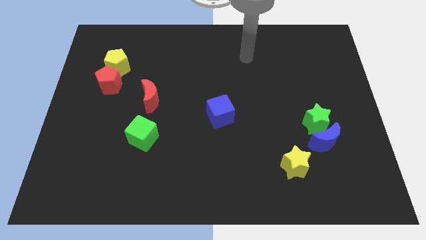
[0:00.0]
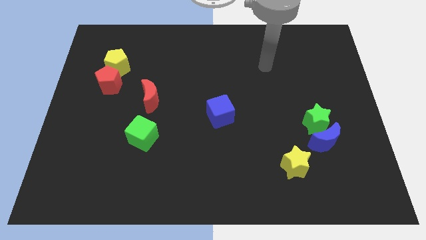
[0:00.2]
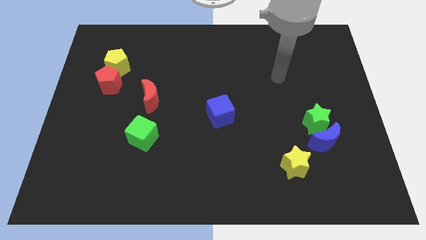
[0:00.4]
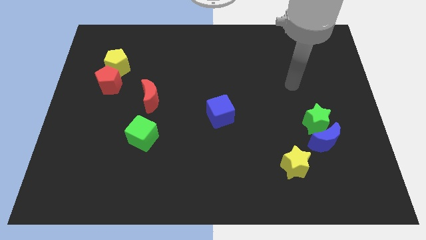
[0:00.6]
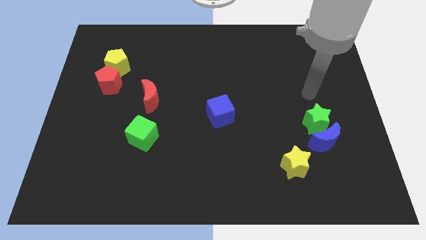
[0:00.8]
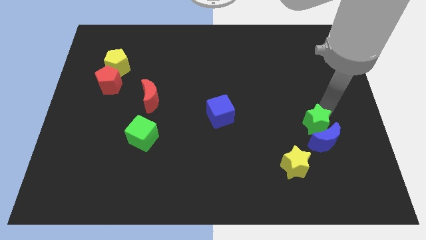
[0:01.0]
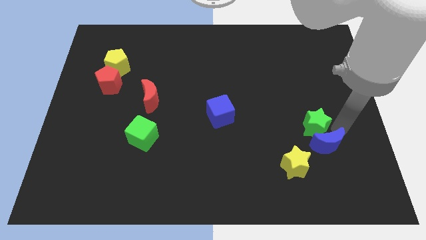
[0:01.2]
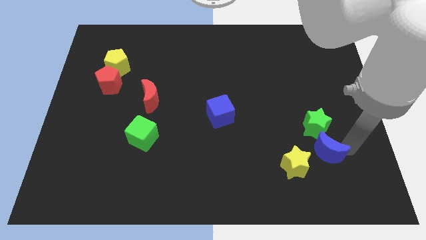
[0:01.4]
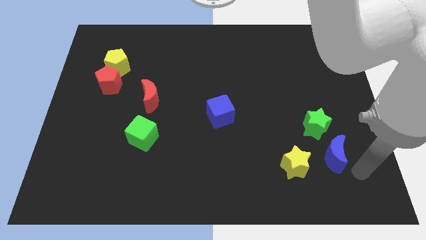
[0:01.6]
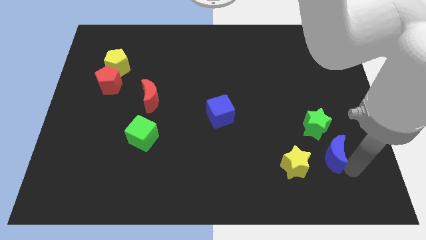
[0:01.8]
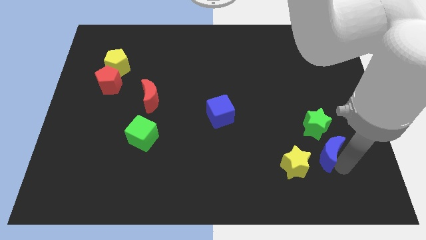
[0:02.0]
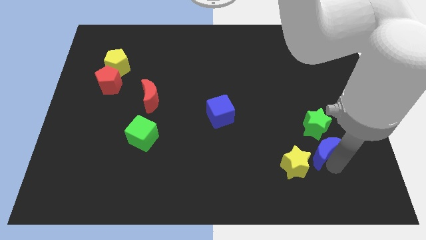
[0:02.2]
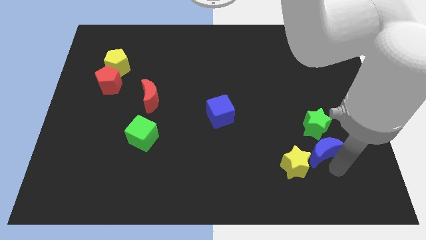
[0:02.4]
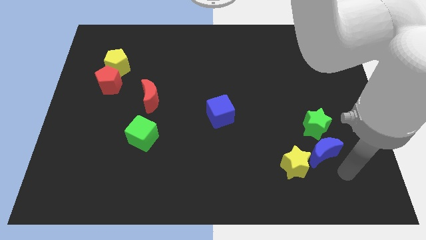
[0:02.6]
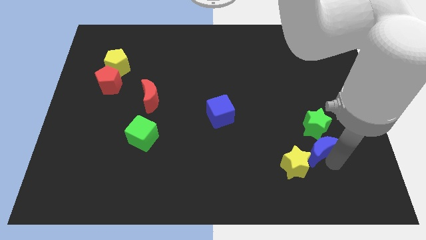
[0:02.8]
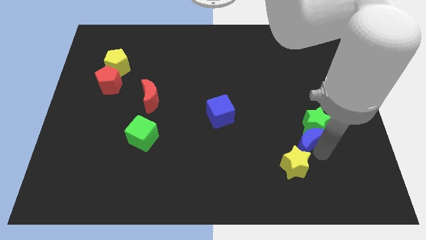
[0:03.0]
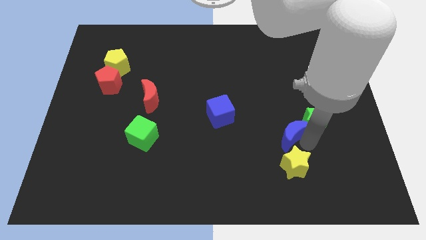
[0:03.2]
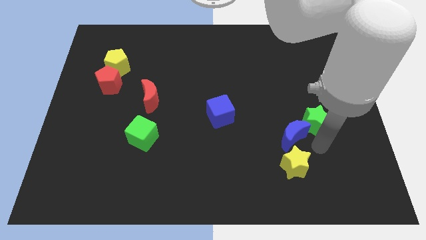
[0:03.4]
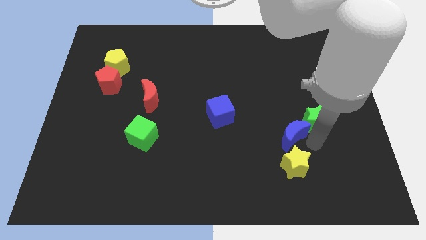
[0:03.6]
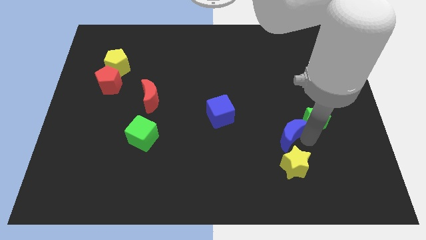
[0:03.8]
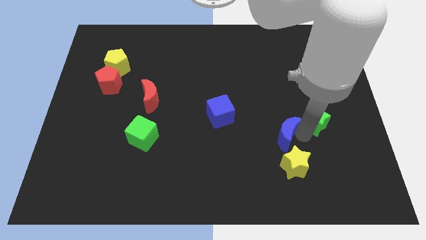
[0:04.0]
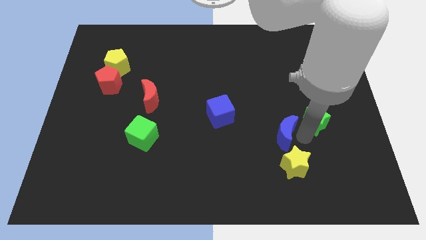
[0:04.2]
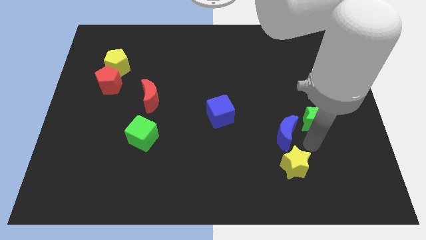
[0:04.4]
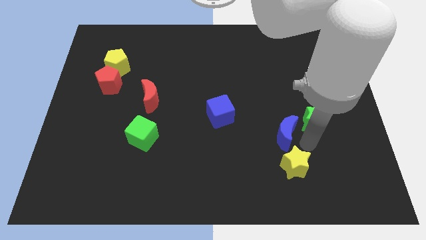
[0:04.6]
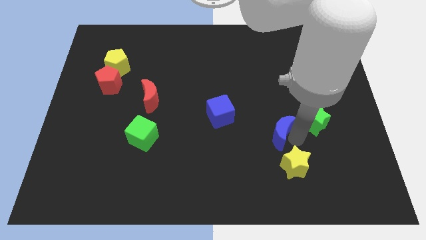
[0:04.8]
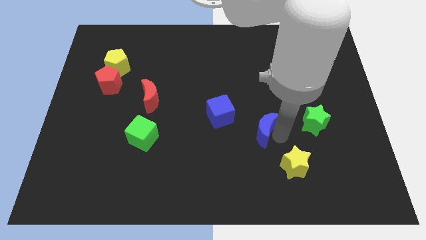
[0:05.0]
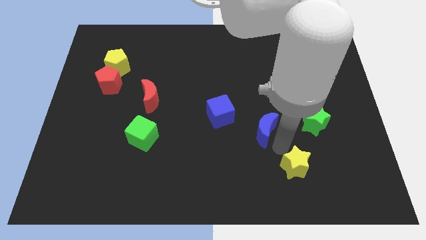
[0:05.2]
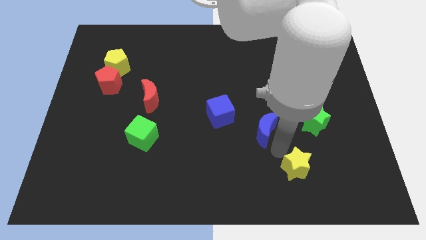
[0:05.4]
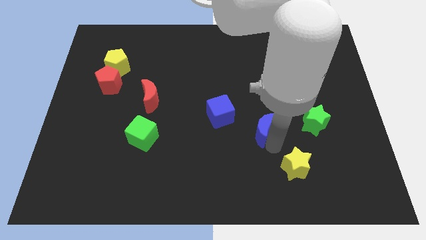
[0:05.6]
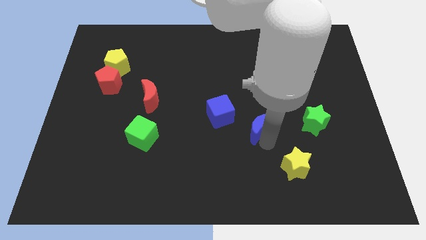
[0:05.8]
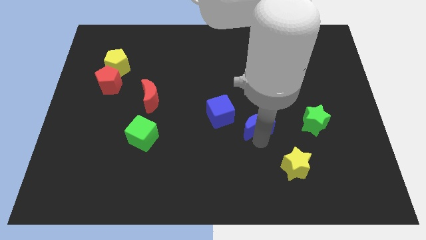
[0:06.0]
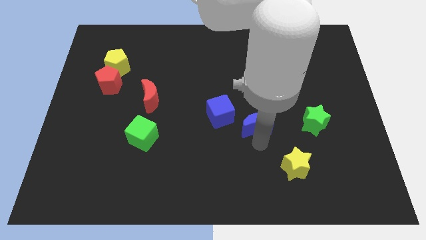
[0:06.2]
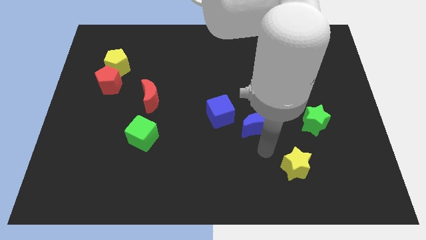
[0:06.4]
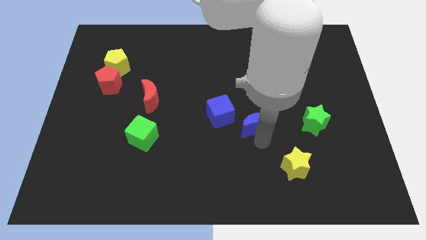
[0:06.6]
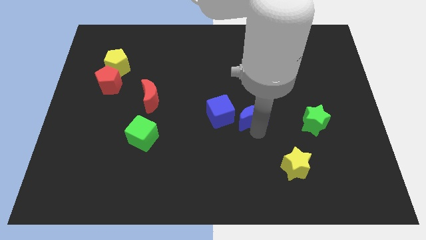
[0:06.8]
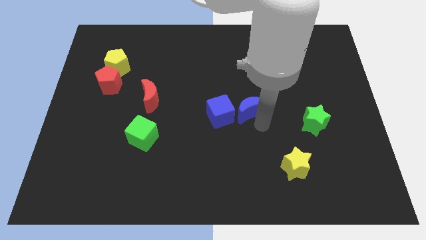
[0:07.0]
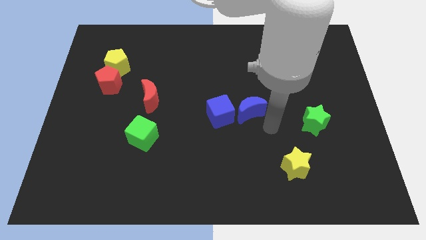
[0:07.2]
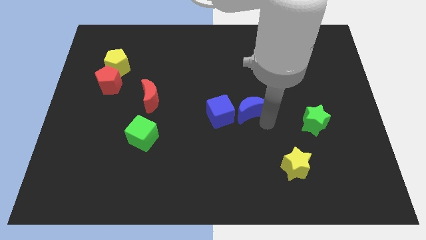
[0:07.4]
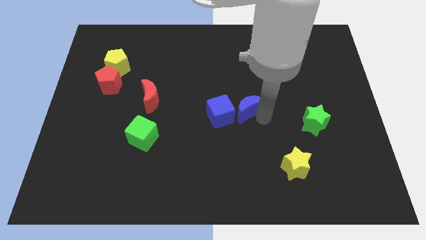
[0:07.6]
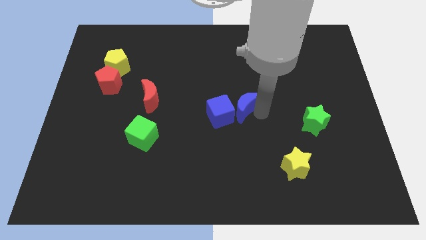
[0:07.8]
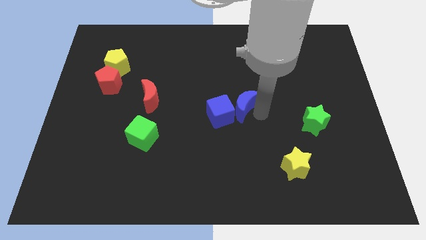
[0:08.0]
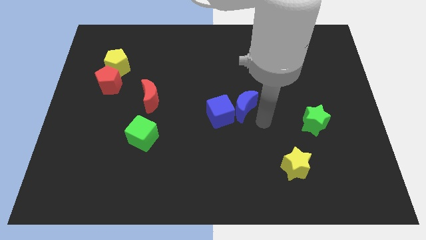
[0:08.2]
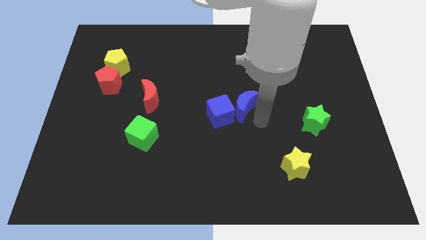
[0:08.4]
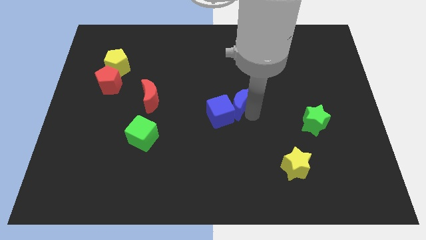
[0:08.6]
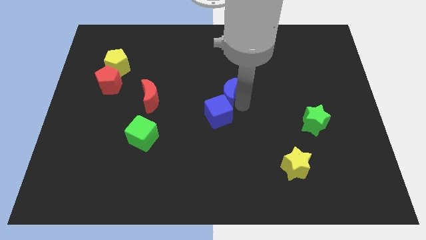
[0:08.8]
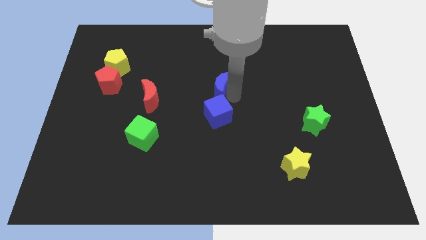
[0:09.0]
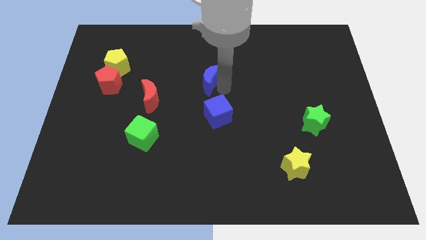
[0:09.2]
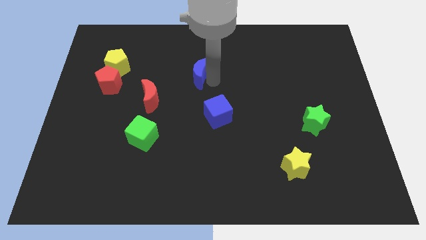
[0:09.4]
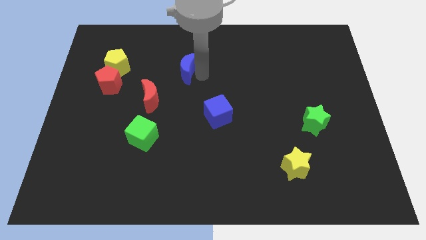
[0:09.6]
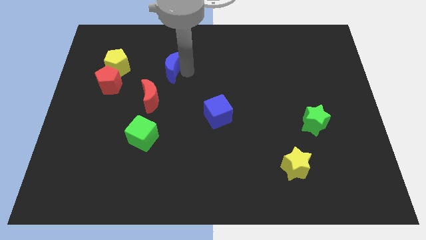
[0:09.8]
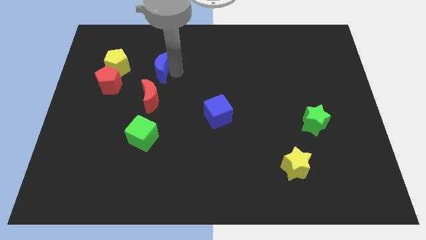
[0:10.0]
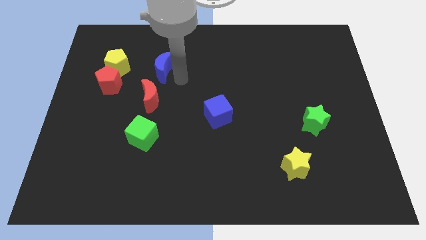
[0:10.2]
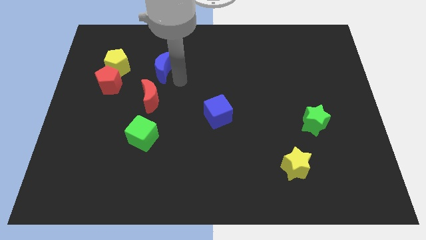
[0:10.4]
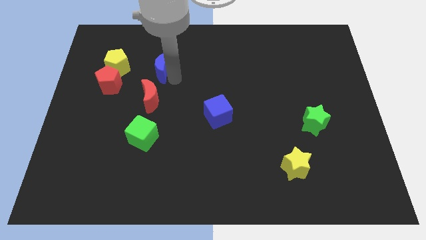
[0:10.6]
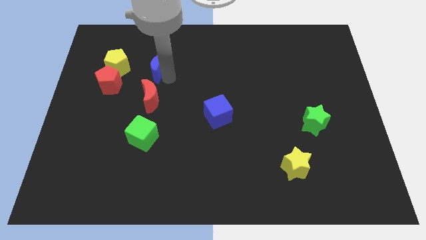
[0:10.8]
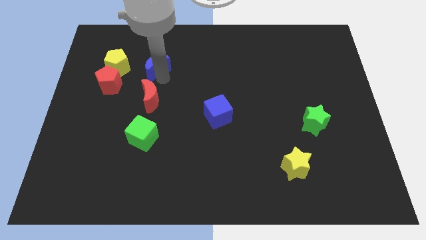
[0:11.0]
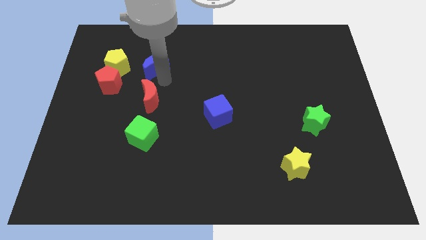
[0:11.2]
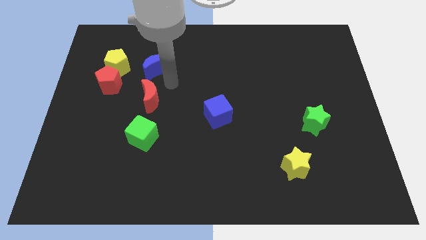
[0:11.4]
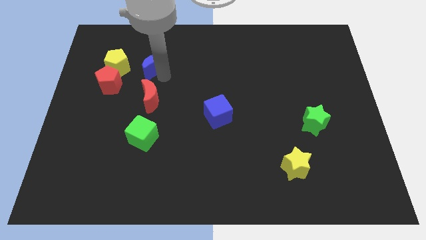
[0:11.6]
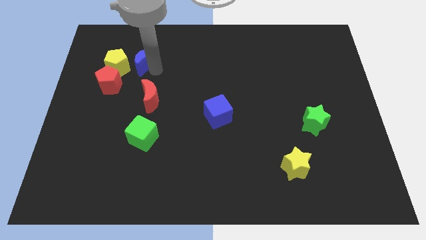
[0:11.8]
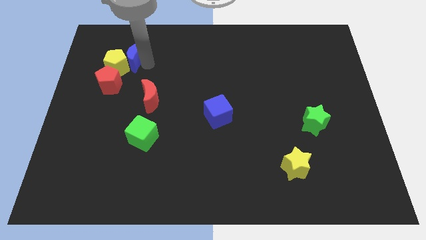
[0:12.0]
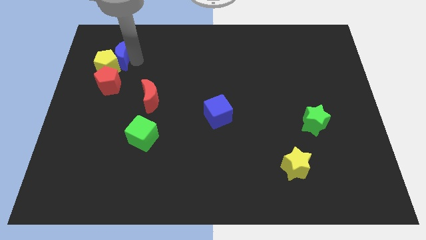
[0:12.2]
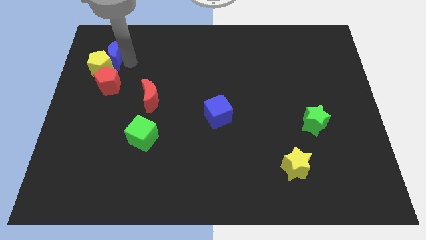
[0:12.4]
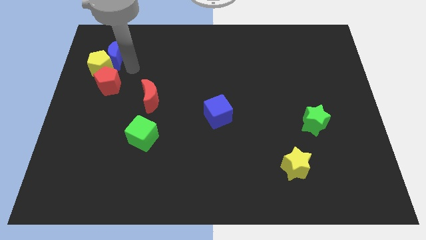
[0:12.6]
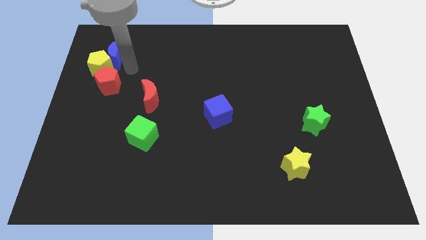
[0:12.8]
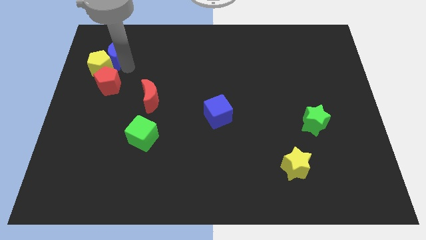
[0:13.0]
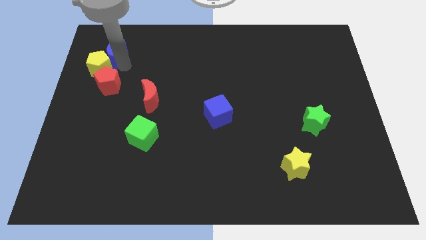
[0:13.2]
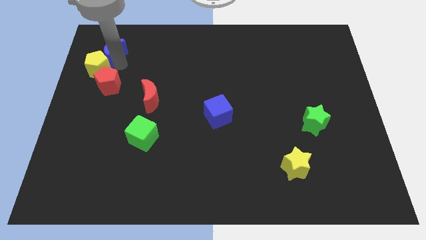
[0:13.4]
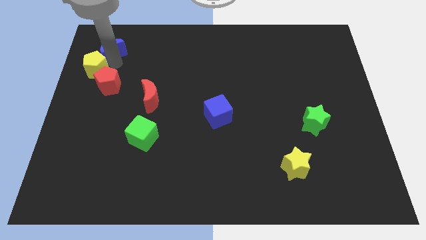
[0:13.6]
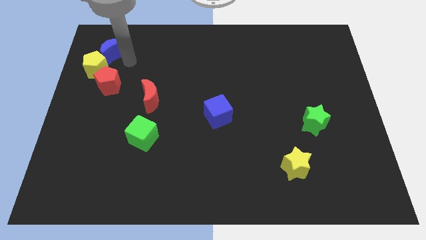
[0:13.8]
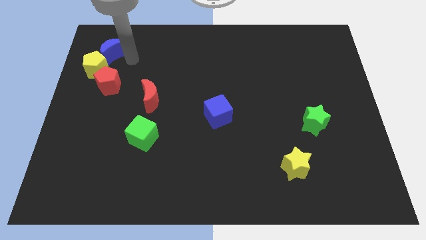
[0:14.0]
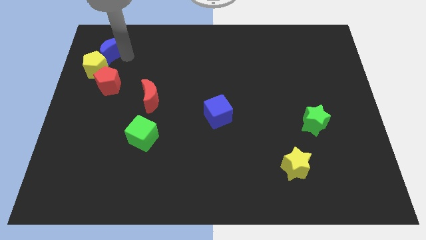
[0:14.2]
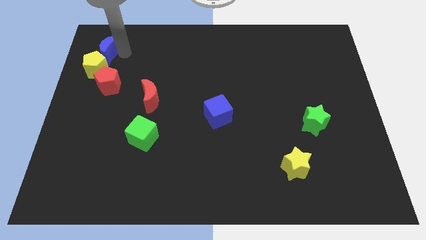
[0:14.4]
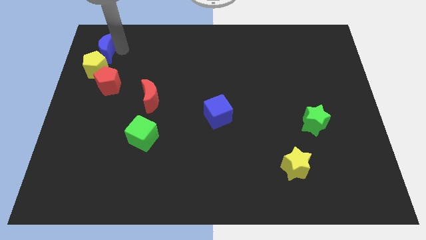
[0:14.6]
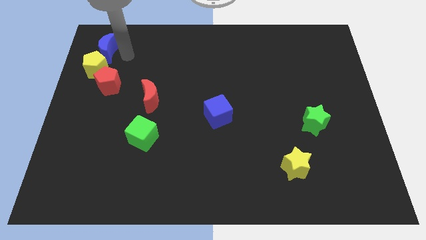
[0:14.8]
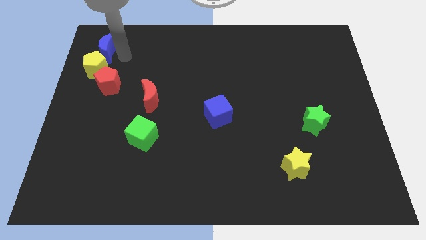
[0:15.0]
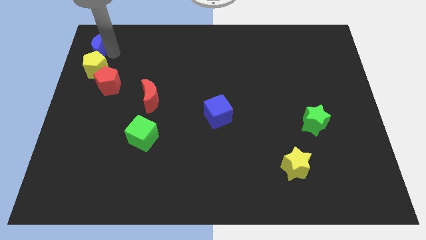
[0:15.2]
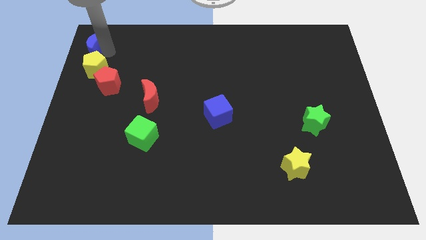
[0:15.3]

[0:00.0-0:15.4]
put the blue moon to the top left of the board
